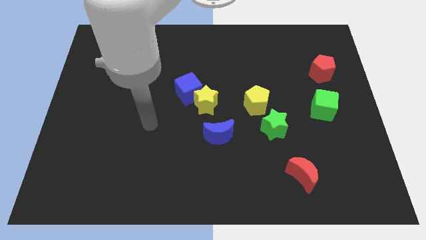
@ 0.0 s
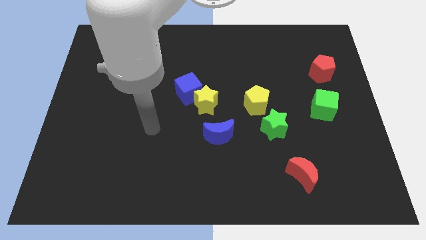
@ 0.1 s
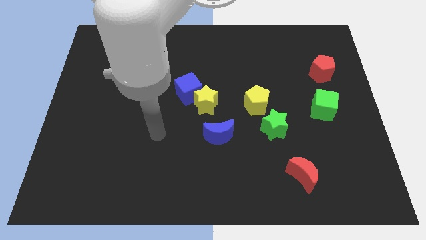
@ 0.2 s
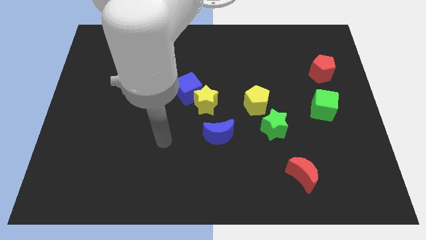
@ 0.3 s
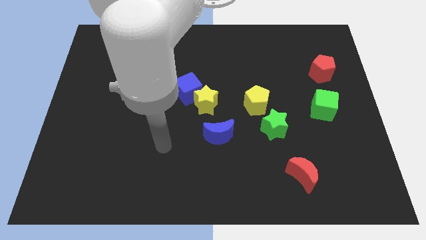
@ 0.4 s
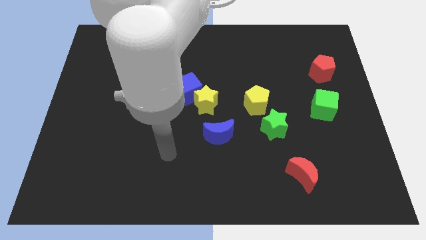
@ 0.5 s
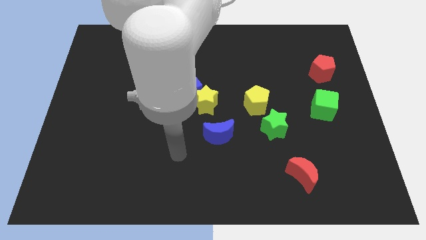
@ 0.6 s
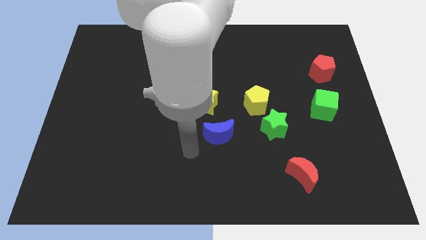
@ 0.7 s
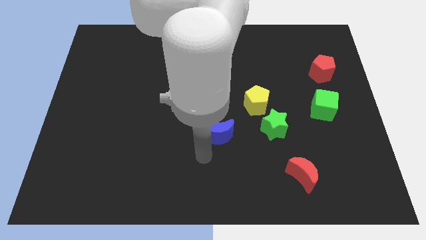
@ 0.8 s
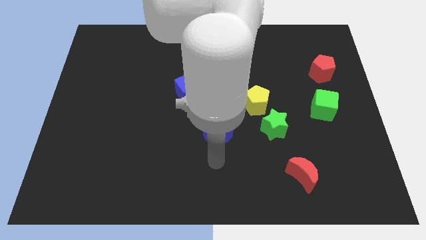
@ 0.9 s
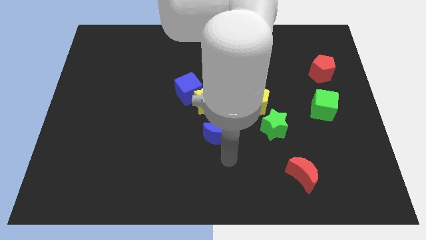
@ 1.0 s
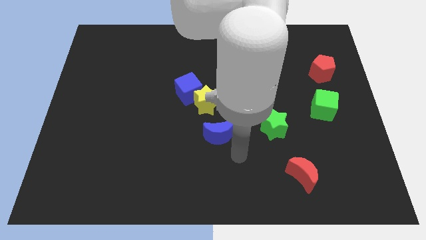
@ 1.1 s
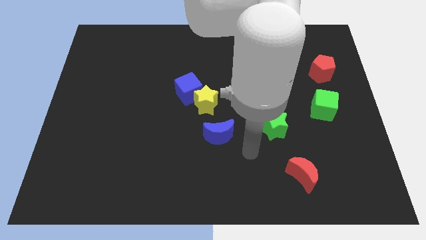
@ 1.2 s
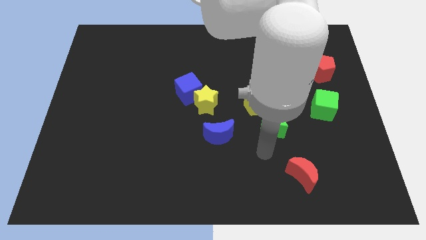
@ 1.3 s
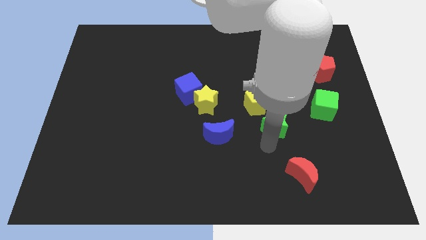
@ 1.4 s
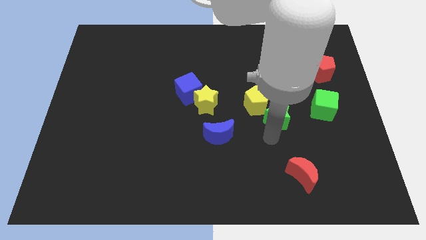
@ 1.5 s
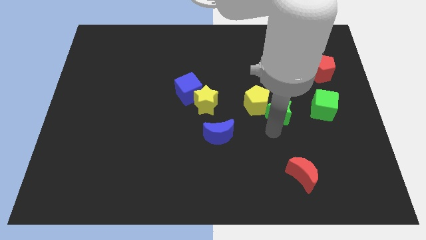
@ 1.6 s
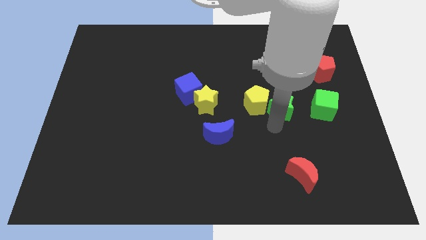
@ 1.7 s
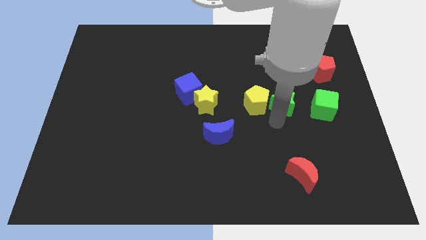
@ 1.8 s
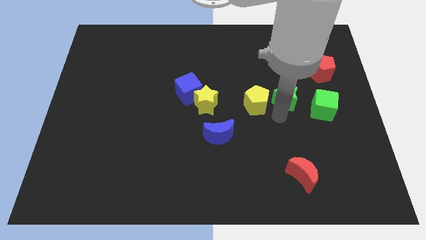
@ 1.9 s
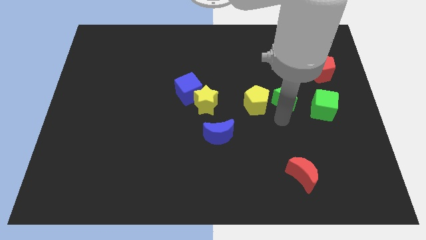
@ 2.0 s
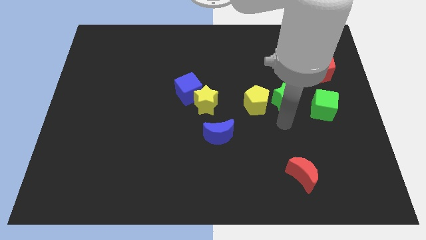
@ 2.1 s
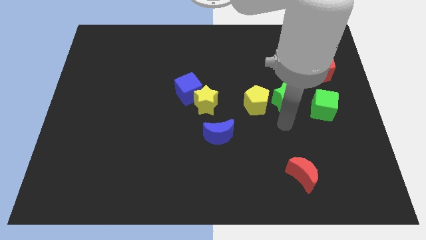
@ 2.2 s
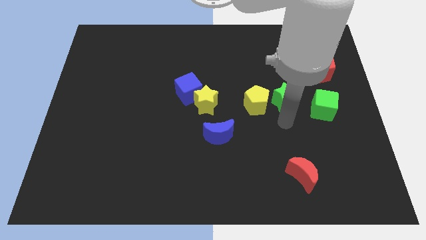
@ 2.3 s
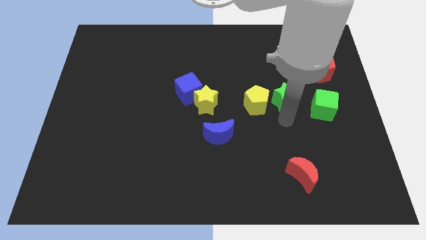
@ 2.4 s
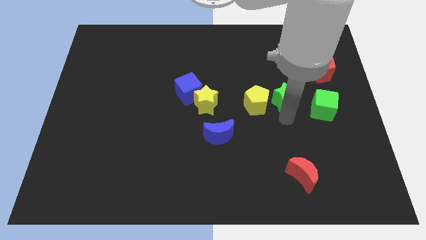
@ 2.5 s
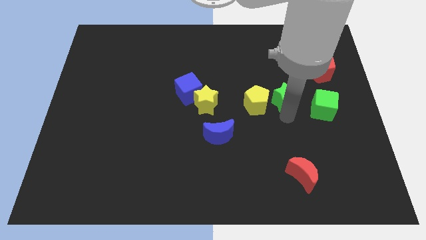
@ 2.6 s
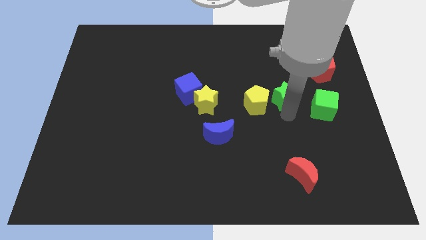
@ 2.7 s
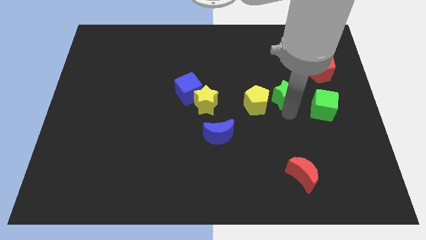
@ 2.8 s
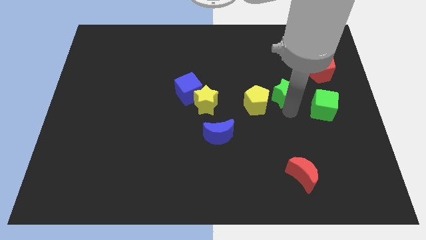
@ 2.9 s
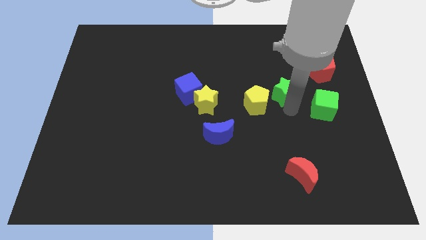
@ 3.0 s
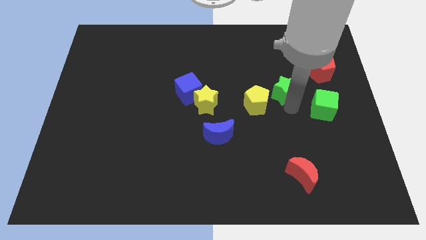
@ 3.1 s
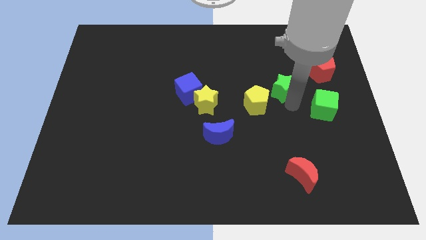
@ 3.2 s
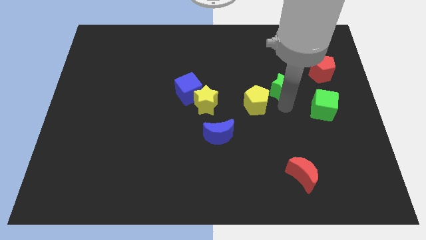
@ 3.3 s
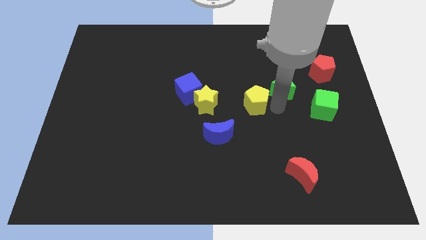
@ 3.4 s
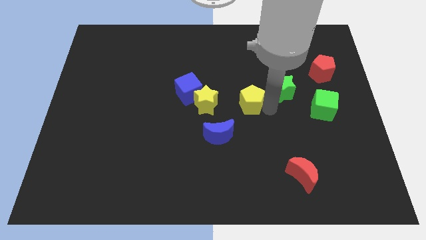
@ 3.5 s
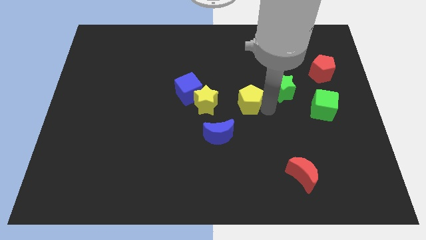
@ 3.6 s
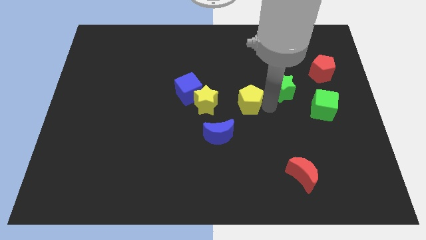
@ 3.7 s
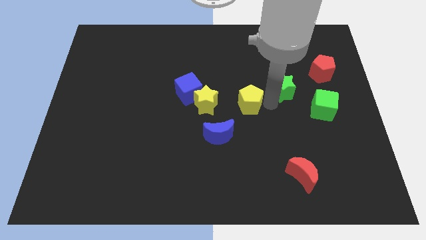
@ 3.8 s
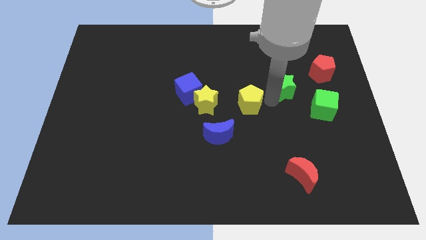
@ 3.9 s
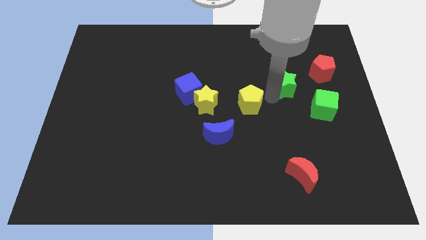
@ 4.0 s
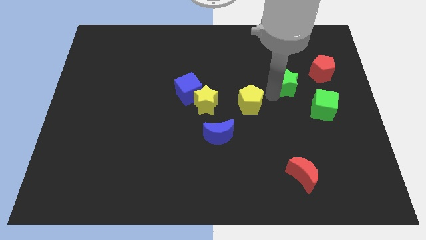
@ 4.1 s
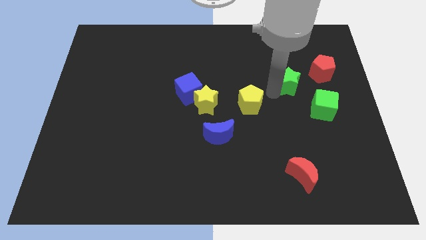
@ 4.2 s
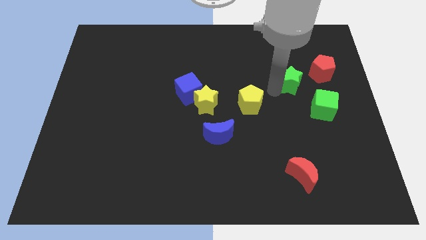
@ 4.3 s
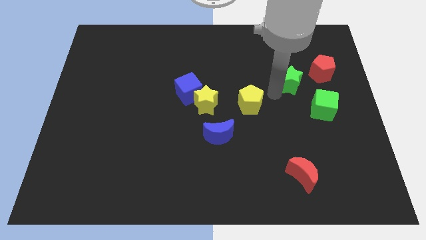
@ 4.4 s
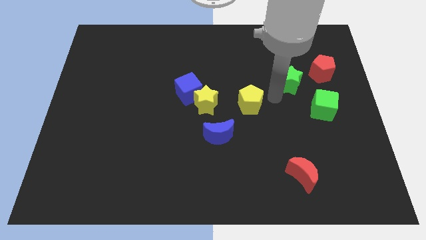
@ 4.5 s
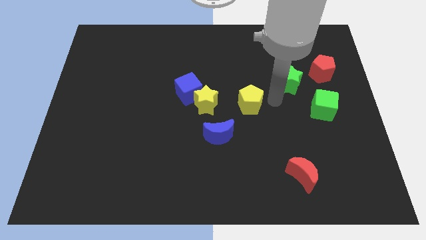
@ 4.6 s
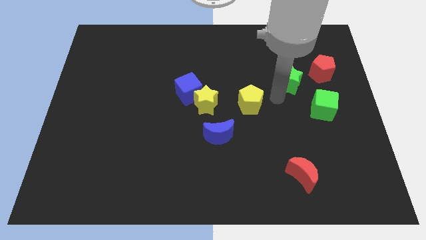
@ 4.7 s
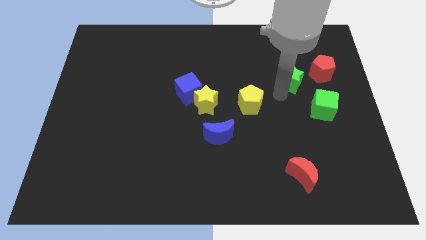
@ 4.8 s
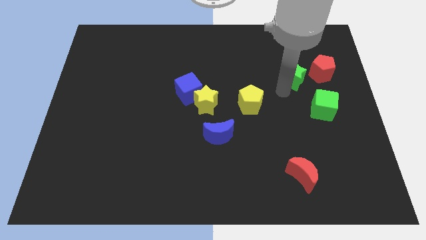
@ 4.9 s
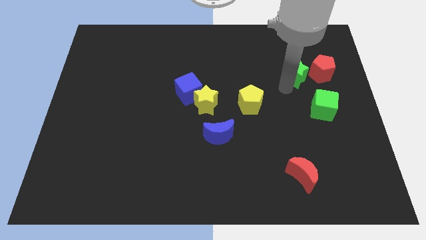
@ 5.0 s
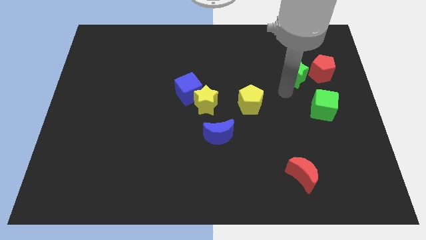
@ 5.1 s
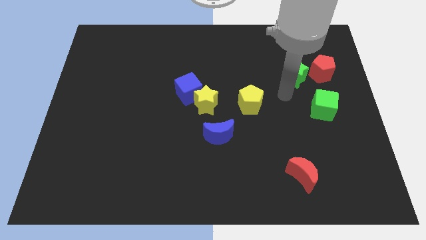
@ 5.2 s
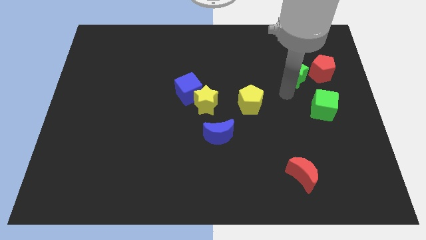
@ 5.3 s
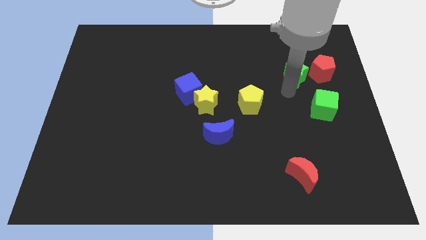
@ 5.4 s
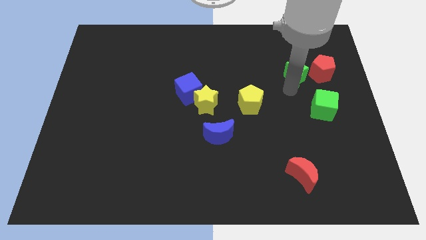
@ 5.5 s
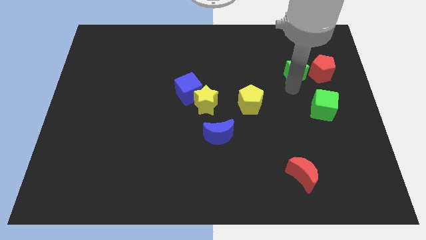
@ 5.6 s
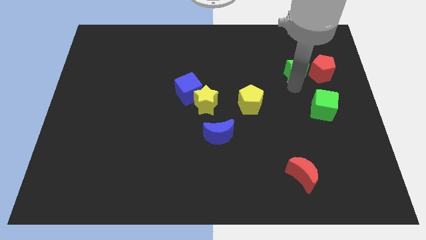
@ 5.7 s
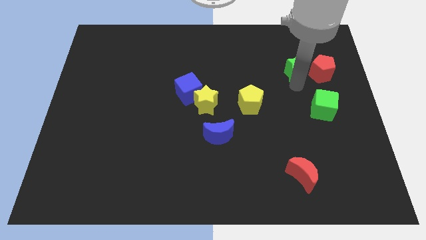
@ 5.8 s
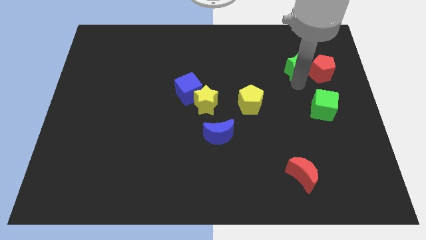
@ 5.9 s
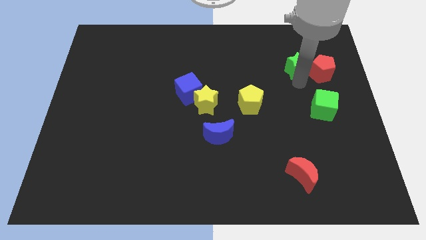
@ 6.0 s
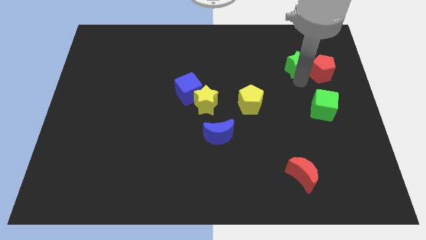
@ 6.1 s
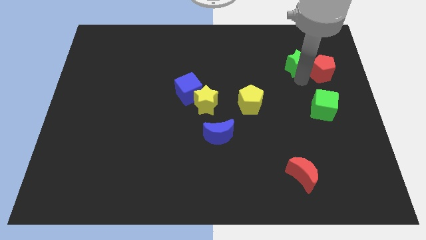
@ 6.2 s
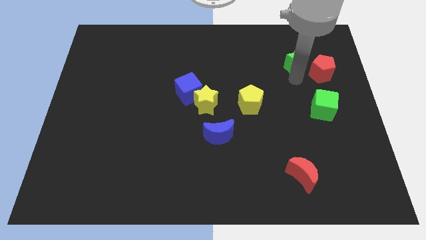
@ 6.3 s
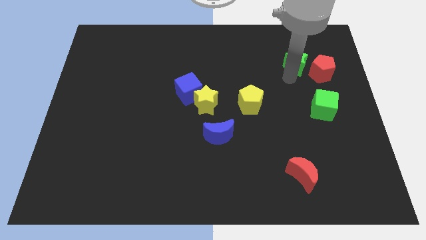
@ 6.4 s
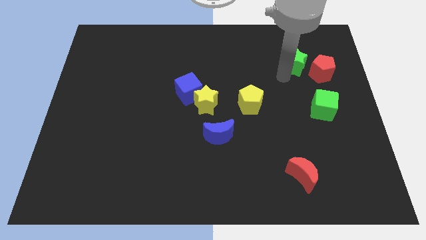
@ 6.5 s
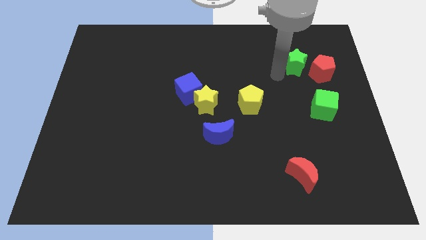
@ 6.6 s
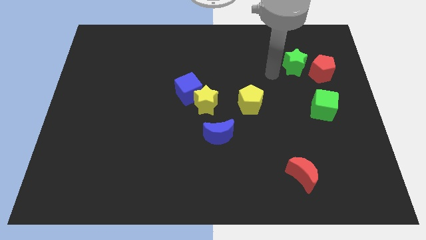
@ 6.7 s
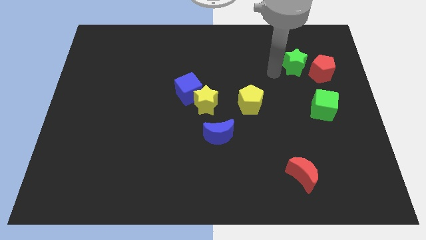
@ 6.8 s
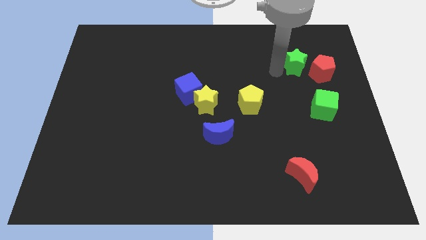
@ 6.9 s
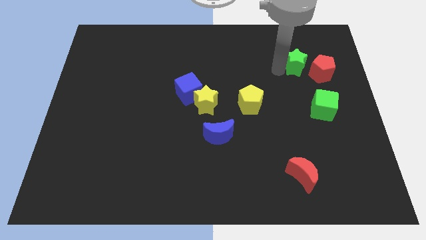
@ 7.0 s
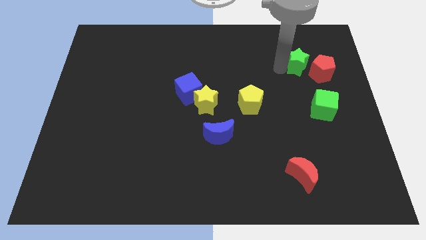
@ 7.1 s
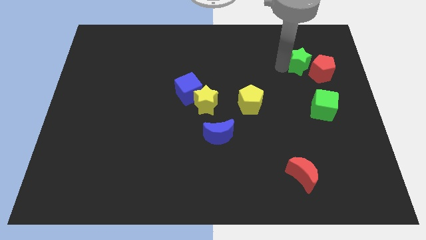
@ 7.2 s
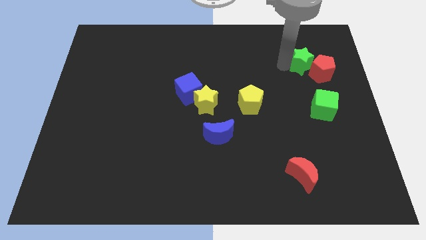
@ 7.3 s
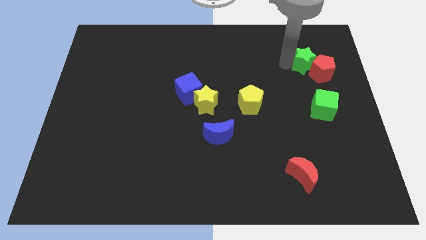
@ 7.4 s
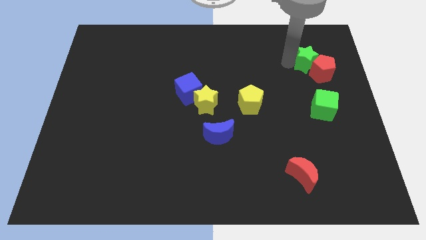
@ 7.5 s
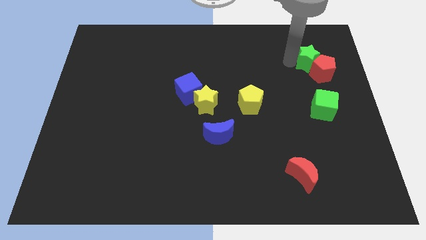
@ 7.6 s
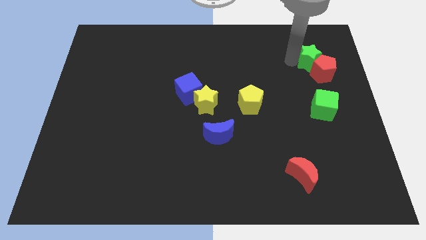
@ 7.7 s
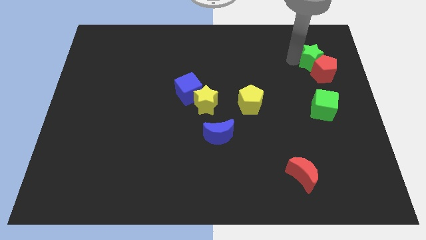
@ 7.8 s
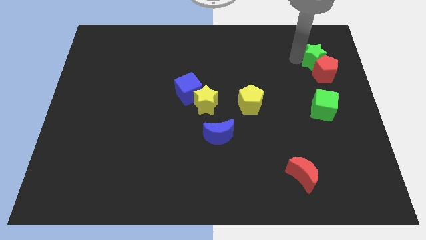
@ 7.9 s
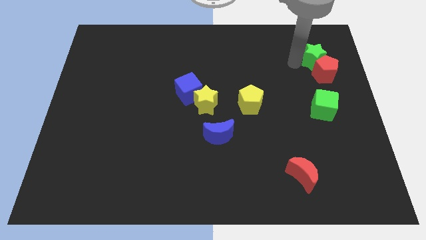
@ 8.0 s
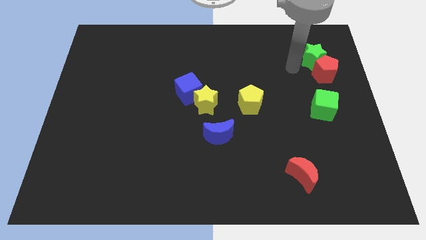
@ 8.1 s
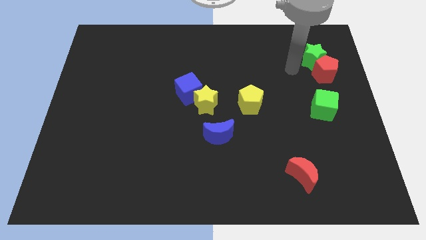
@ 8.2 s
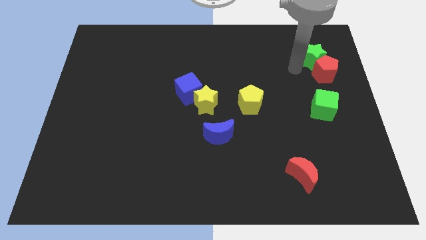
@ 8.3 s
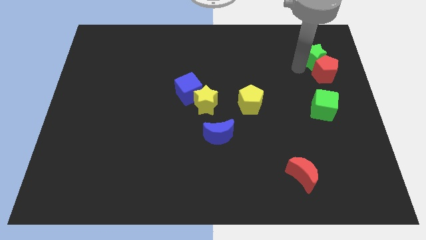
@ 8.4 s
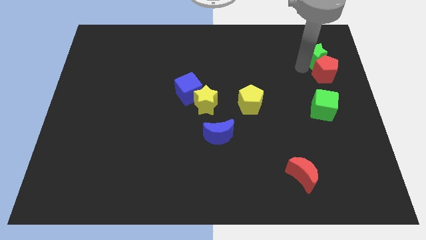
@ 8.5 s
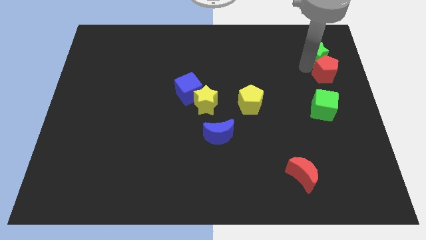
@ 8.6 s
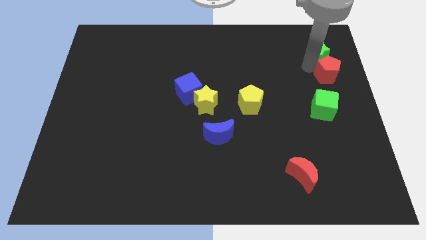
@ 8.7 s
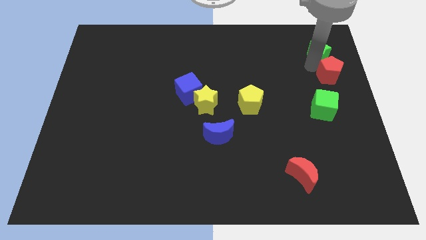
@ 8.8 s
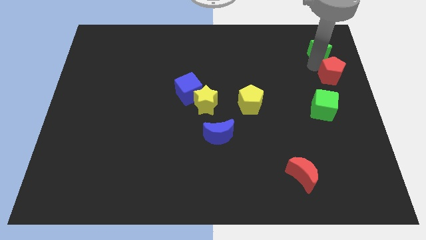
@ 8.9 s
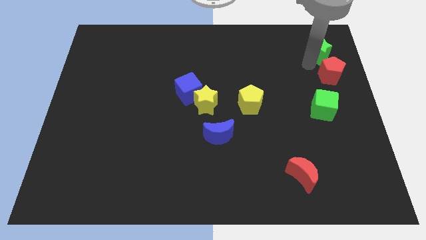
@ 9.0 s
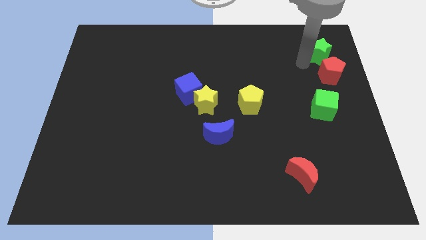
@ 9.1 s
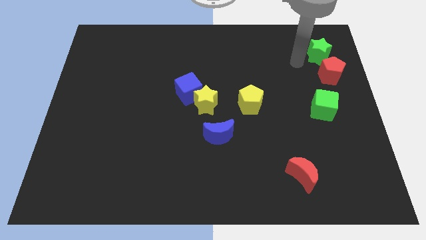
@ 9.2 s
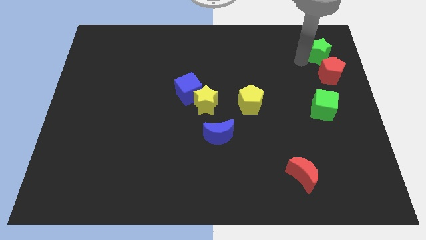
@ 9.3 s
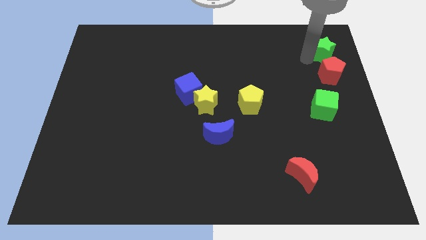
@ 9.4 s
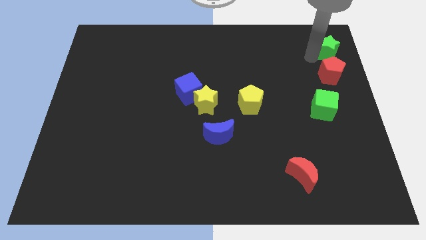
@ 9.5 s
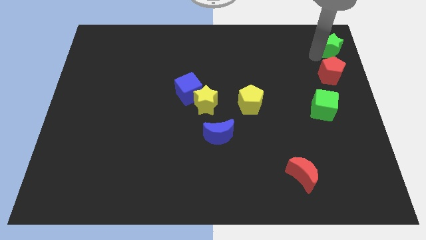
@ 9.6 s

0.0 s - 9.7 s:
move the green star to the top right
